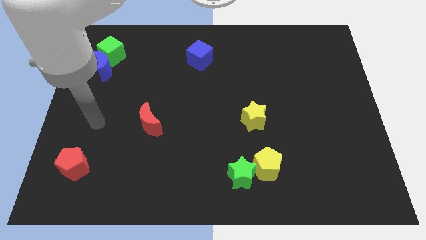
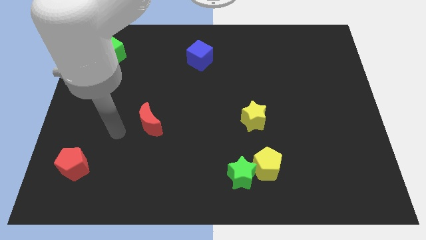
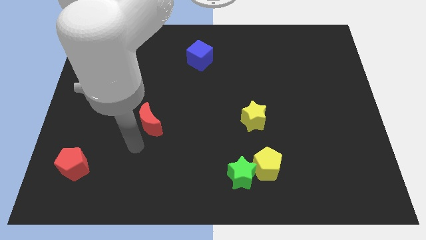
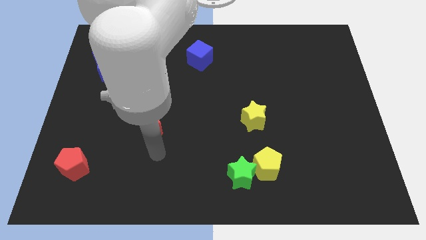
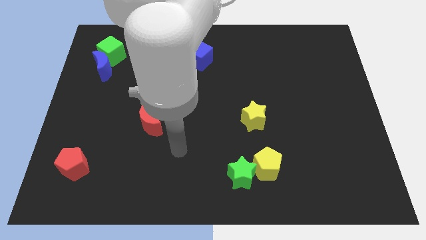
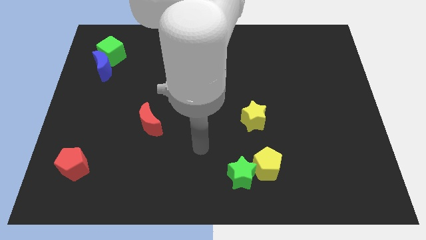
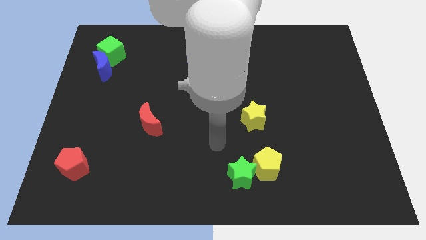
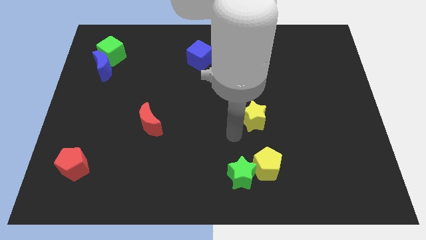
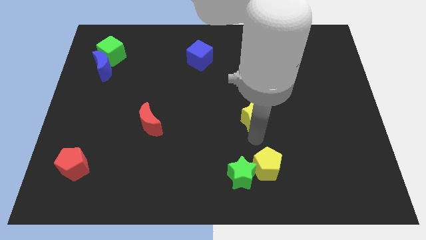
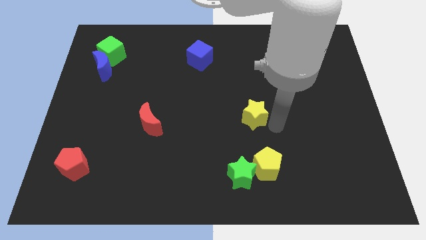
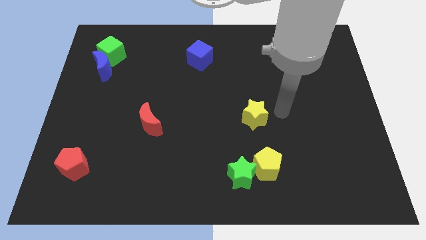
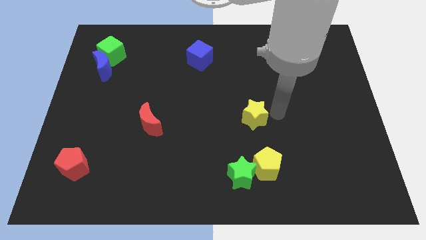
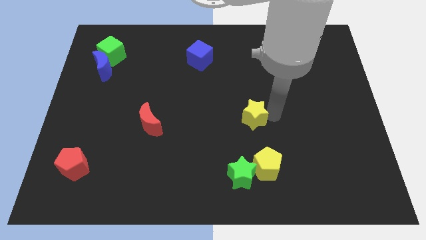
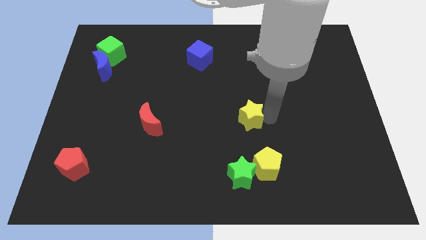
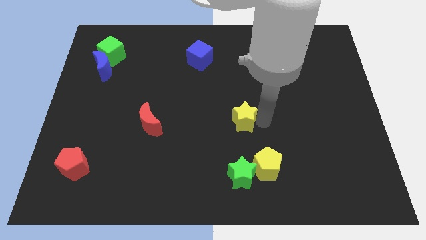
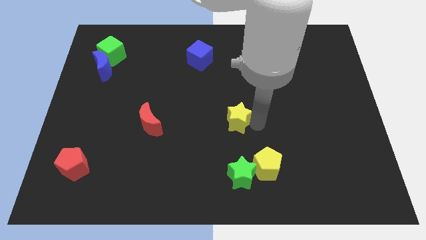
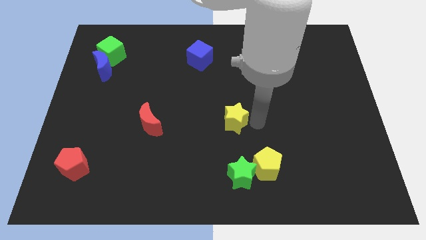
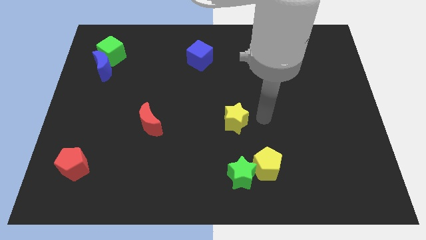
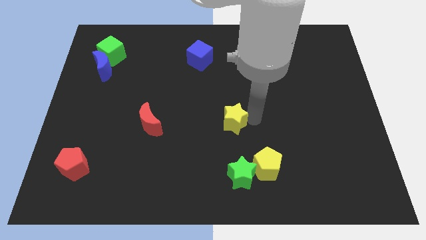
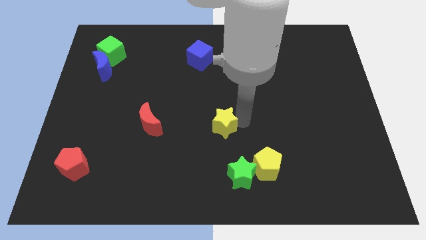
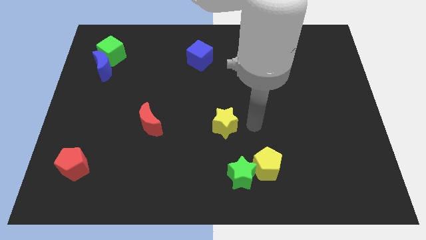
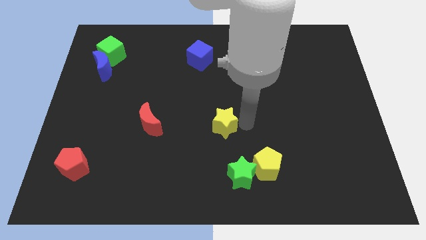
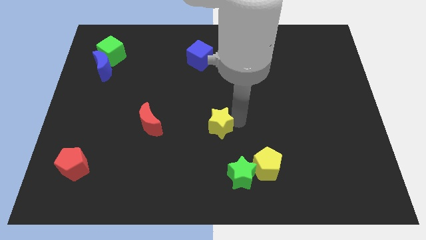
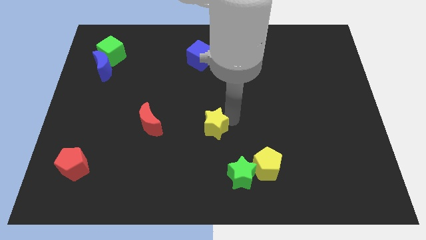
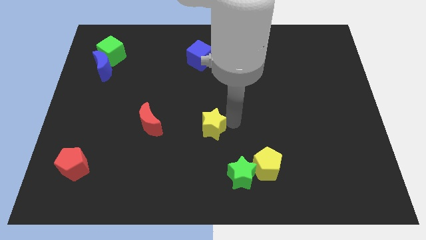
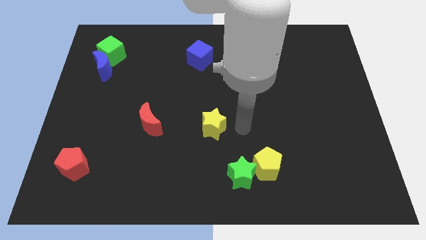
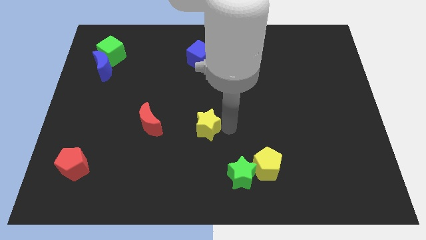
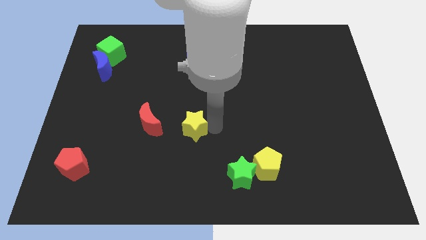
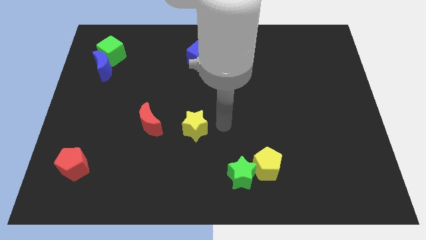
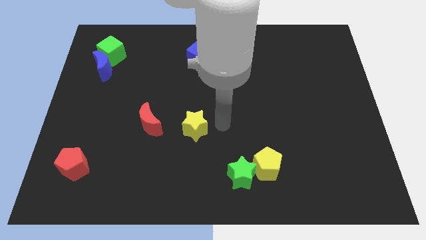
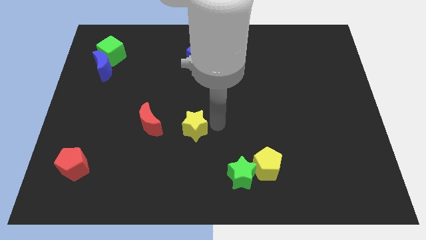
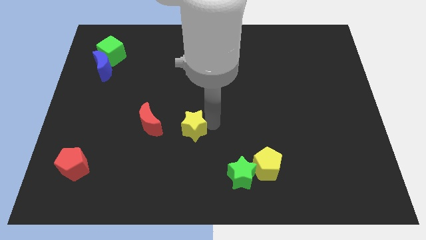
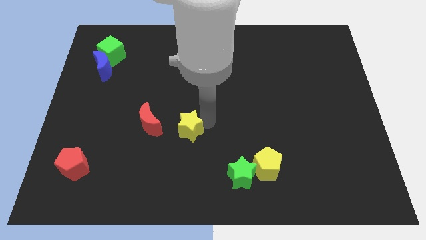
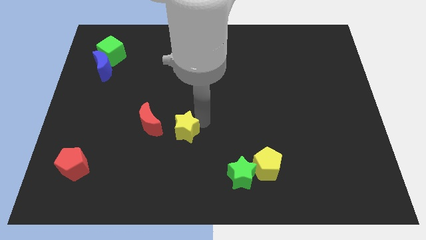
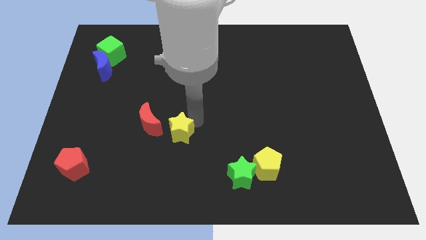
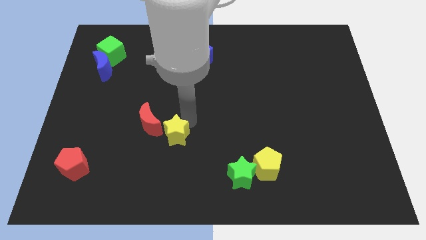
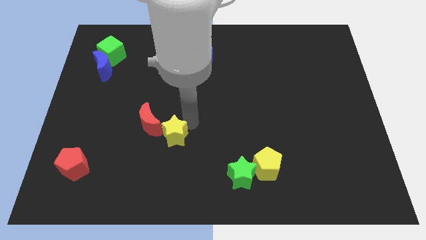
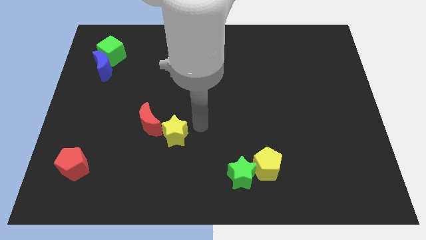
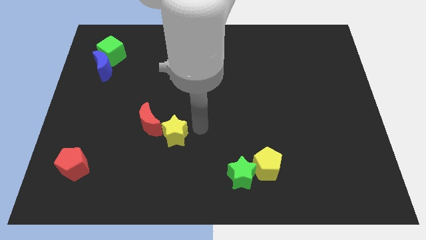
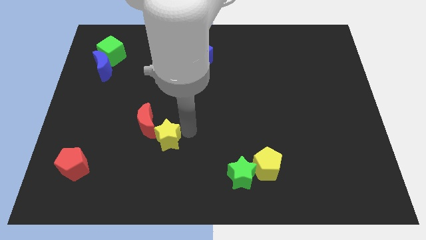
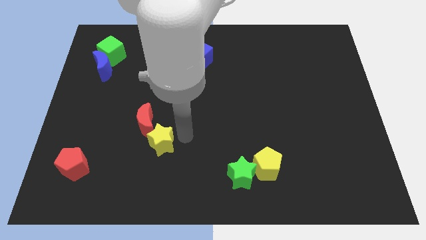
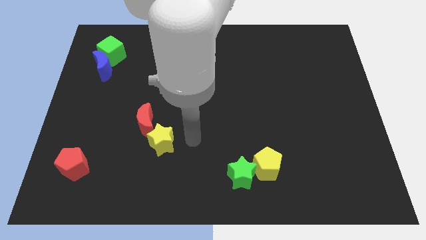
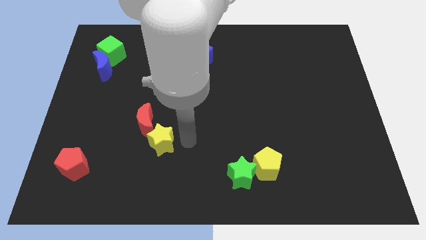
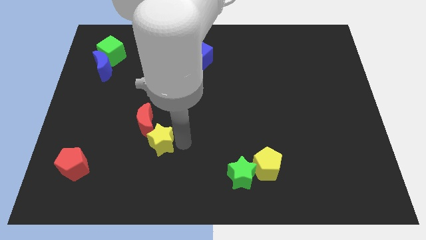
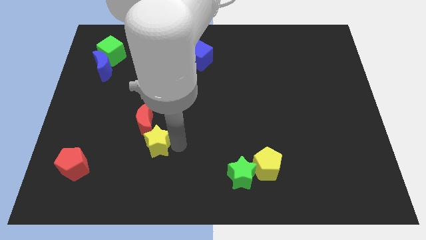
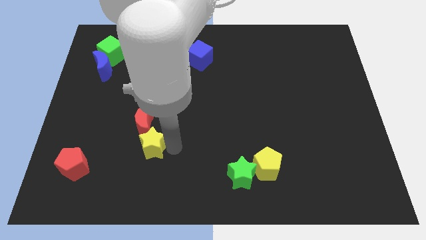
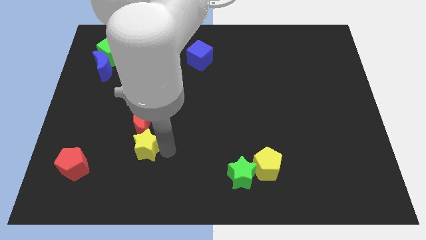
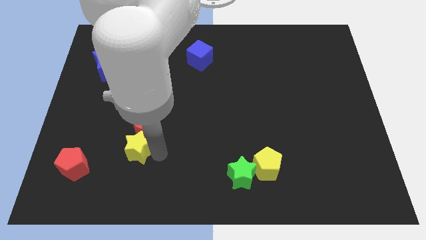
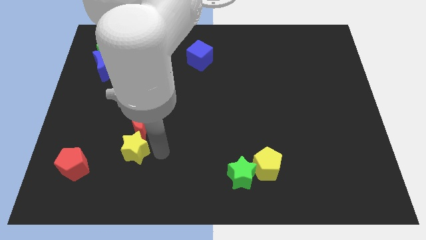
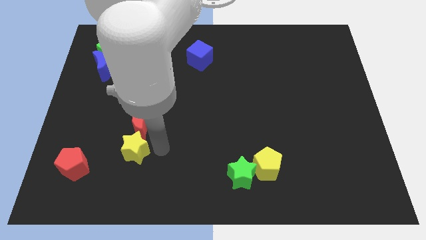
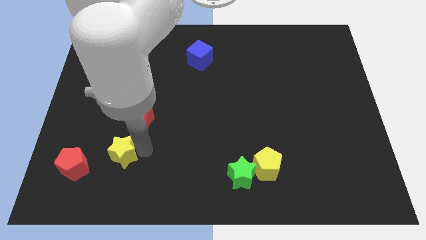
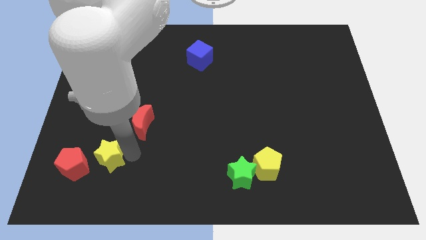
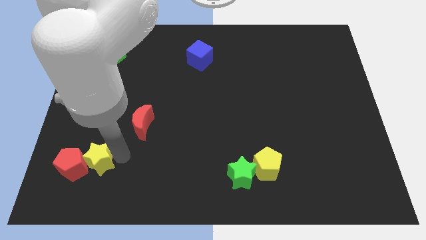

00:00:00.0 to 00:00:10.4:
put the yellow star close to the red pentagon

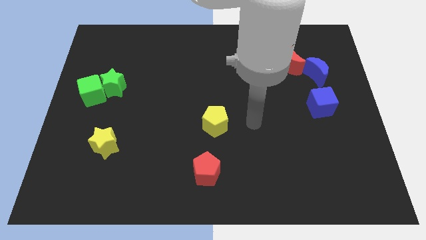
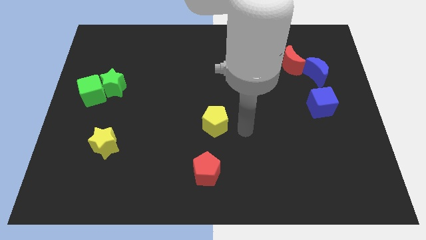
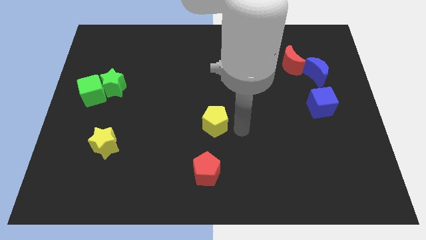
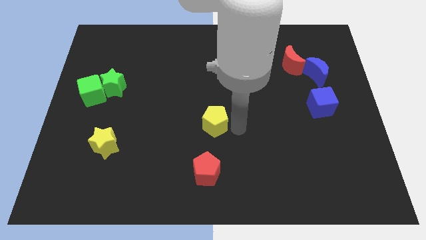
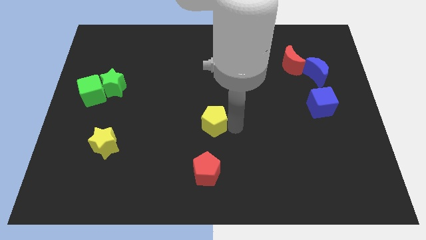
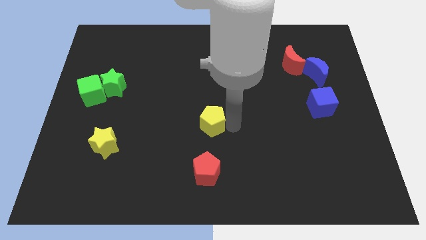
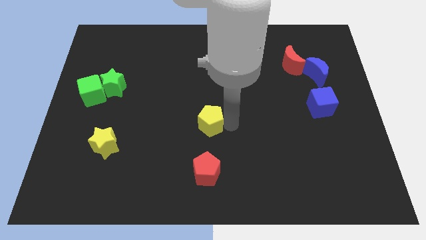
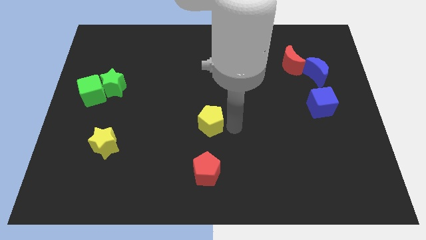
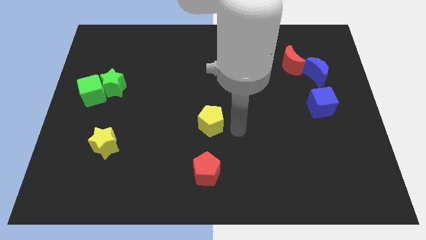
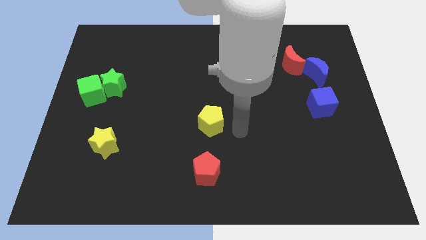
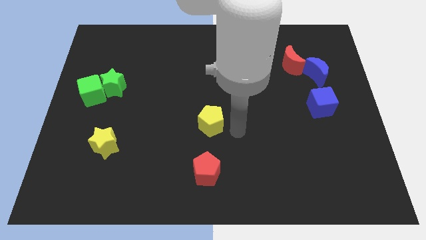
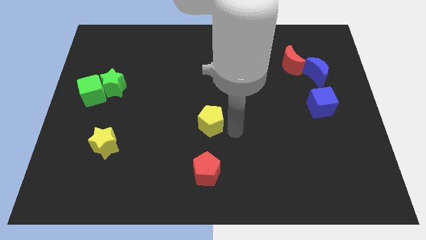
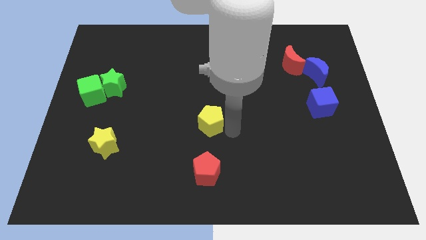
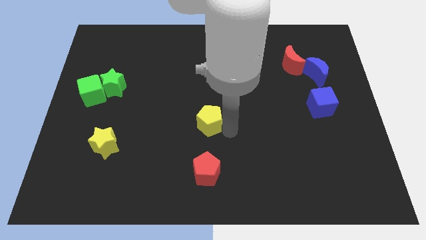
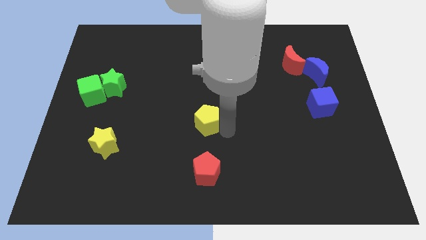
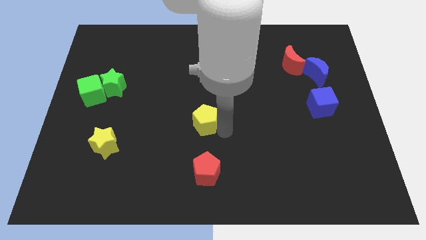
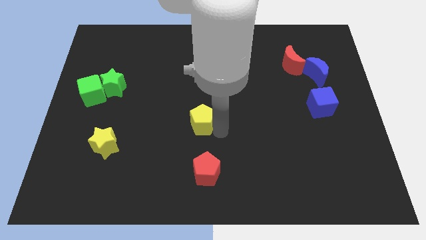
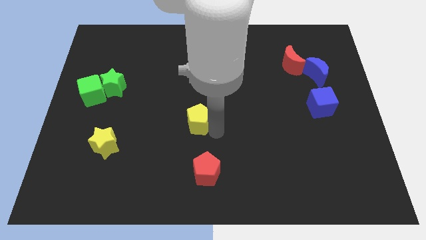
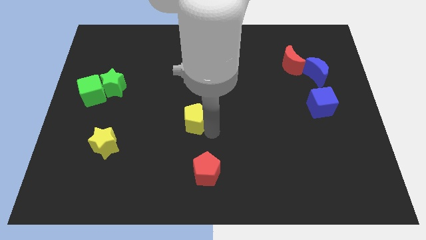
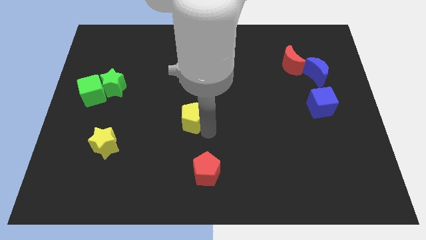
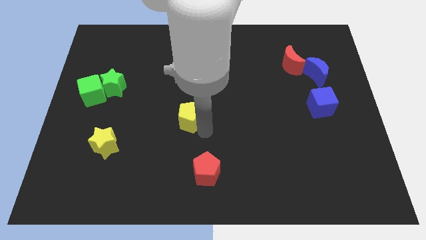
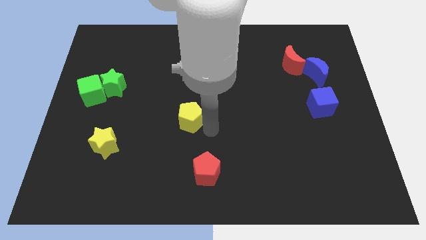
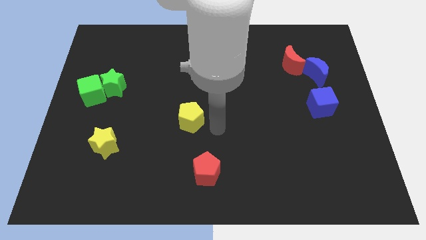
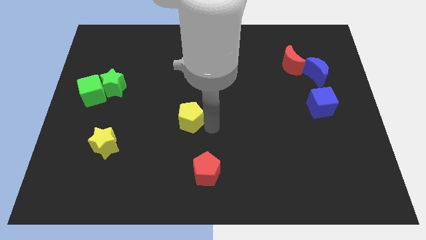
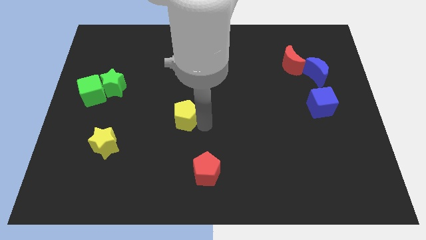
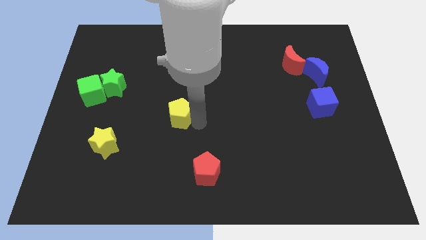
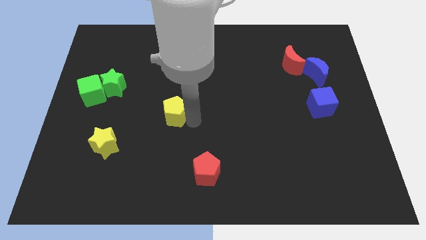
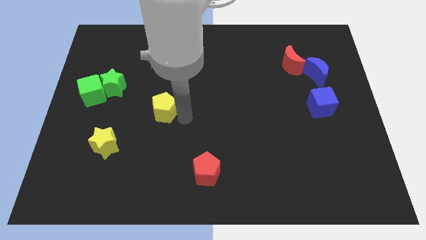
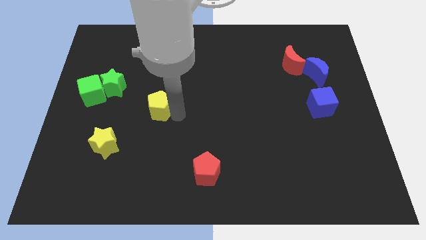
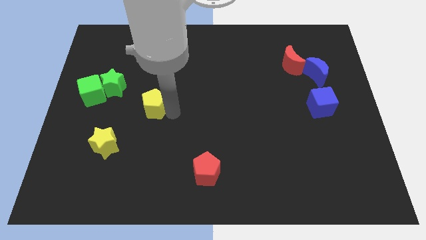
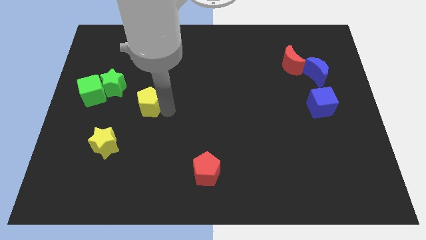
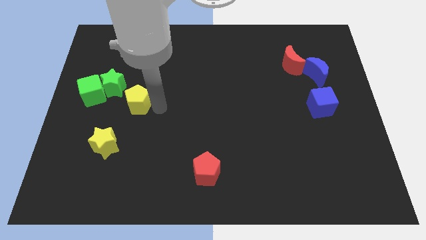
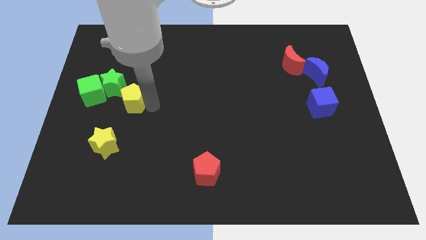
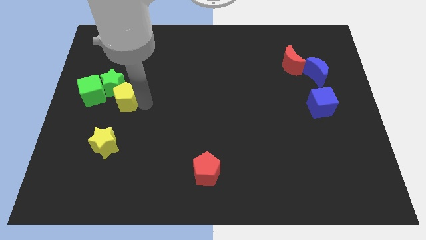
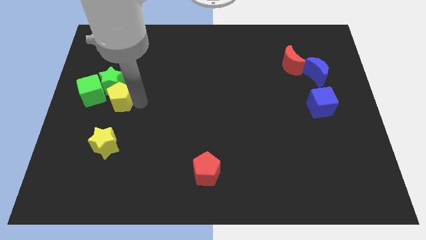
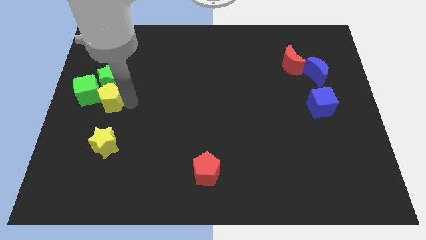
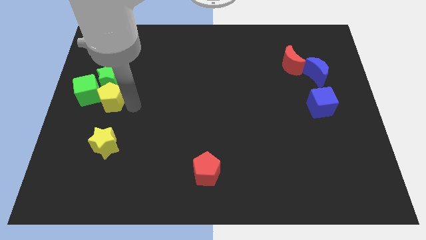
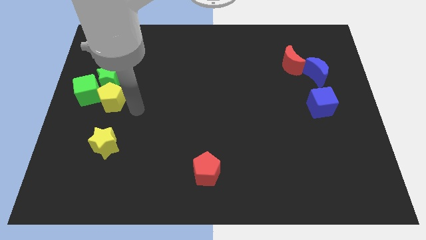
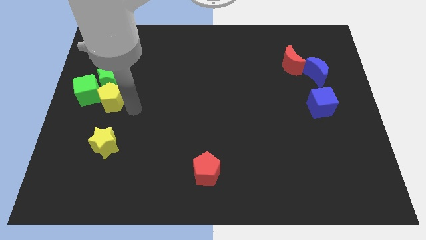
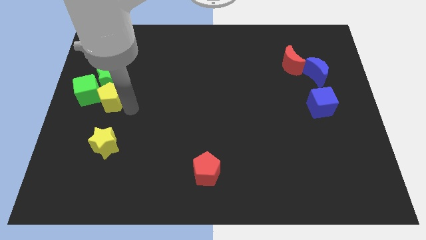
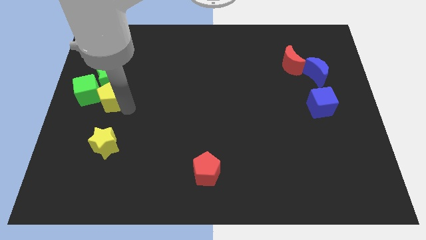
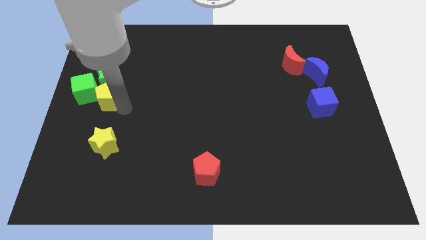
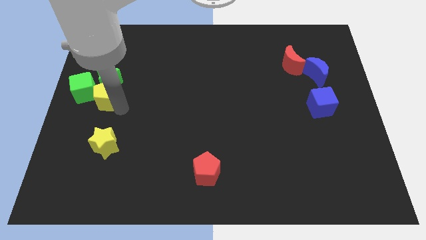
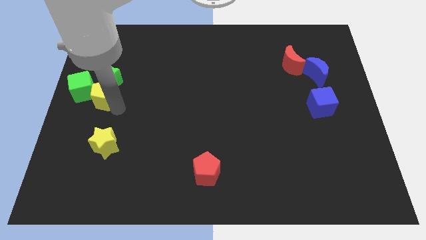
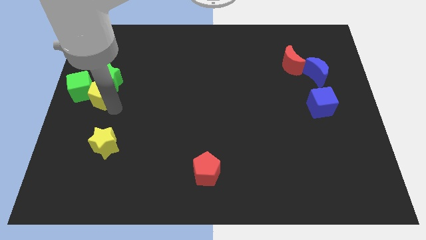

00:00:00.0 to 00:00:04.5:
slide the yellow pentagon close to the green cube
